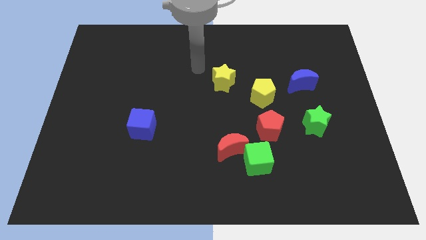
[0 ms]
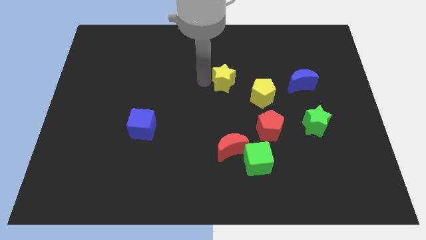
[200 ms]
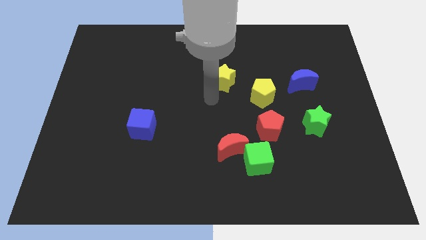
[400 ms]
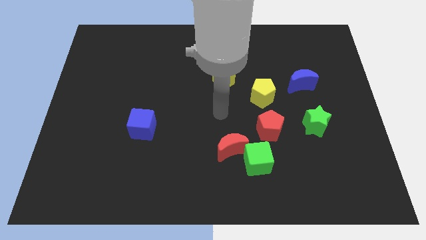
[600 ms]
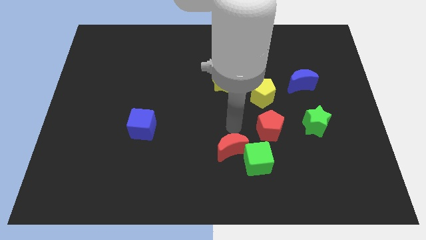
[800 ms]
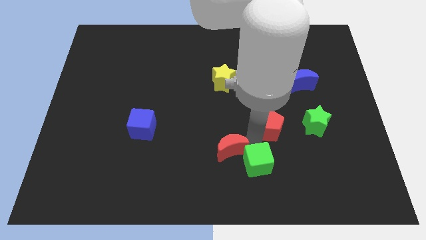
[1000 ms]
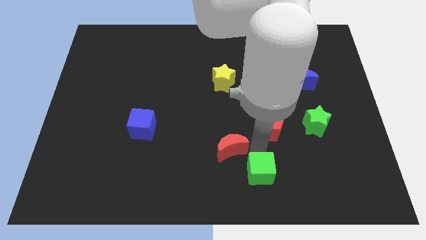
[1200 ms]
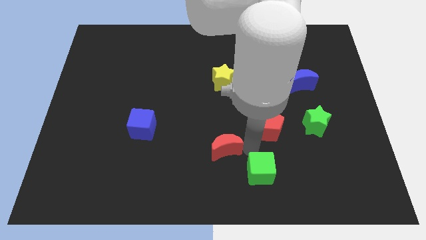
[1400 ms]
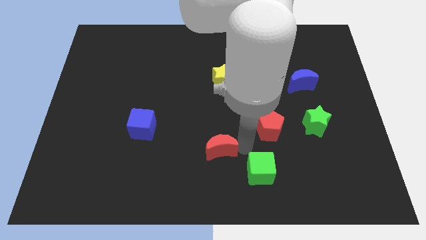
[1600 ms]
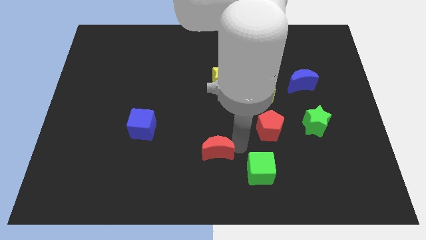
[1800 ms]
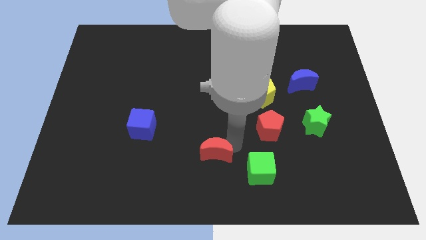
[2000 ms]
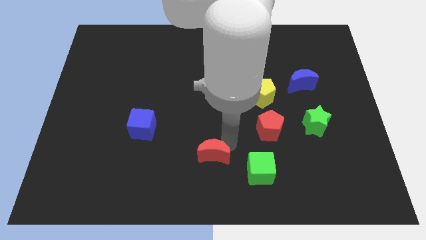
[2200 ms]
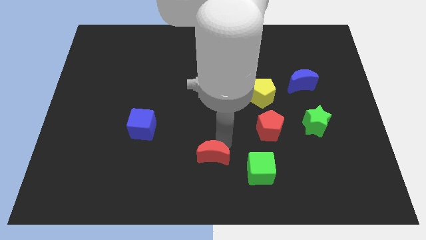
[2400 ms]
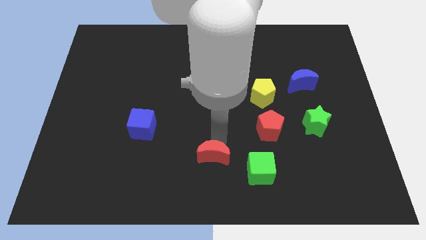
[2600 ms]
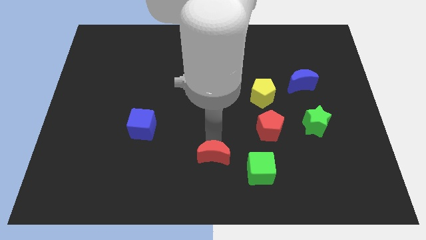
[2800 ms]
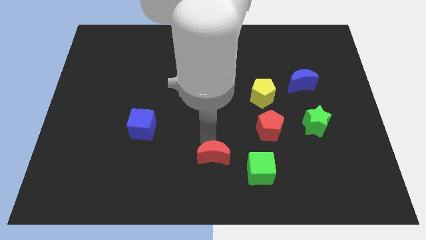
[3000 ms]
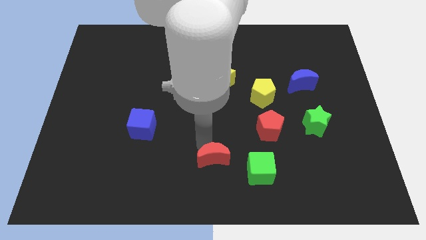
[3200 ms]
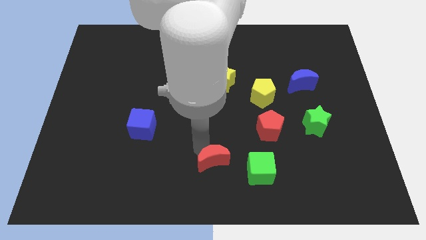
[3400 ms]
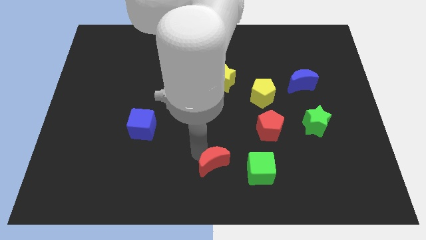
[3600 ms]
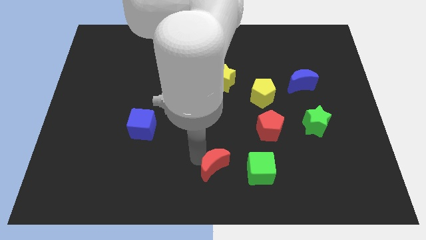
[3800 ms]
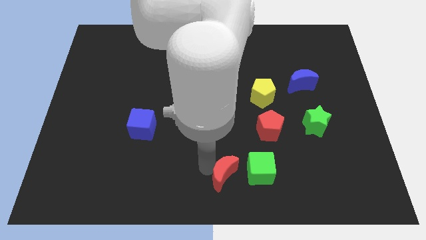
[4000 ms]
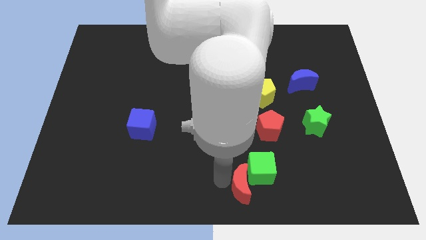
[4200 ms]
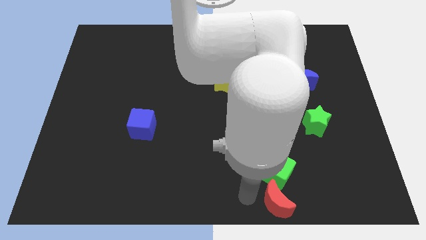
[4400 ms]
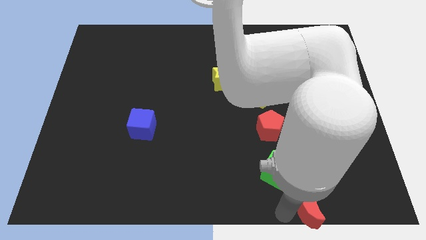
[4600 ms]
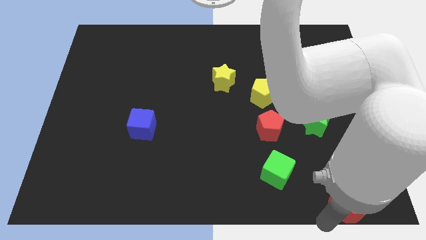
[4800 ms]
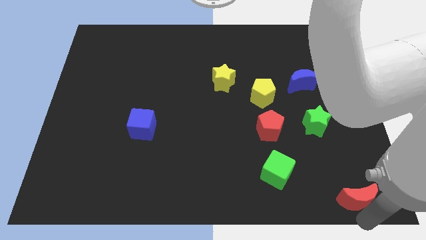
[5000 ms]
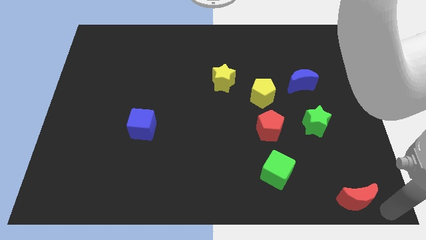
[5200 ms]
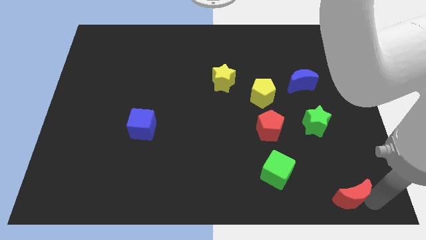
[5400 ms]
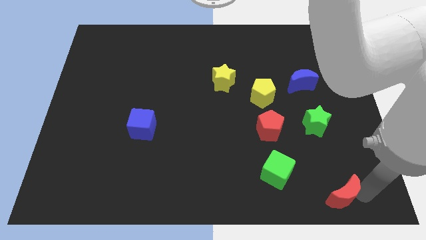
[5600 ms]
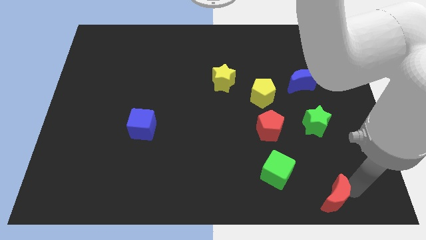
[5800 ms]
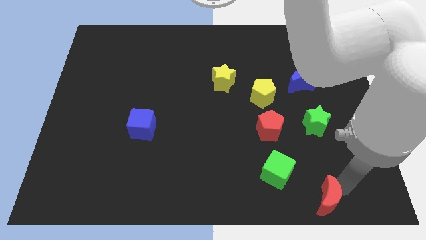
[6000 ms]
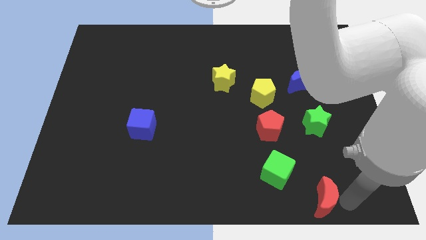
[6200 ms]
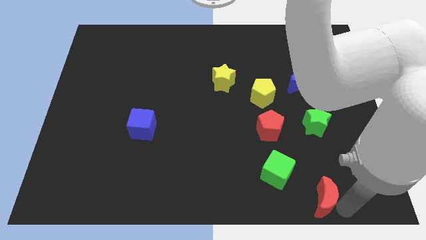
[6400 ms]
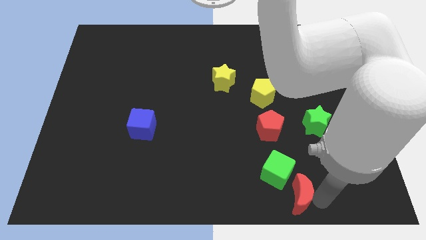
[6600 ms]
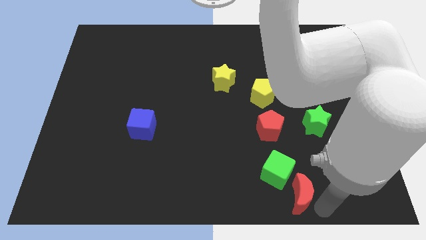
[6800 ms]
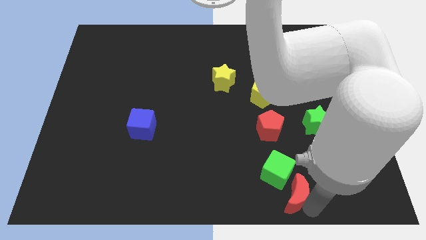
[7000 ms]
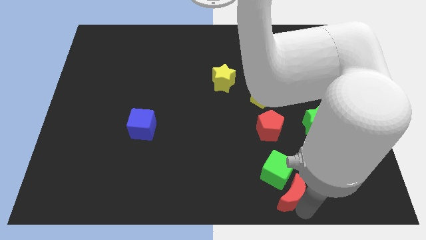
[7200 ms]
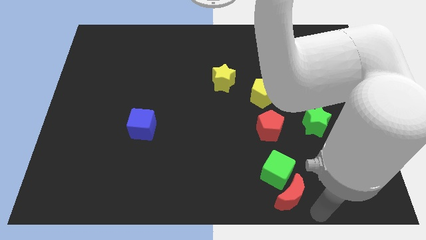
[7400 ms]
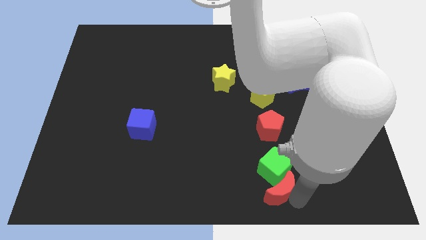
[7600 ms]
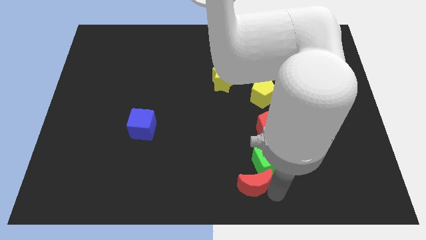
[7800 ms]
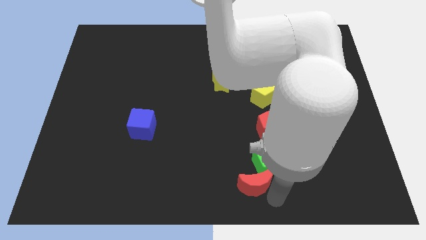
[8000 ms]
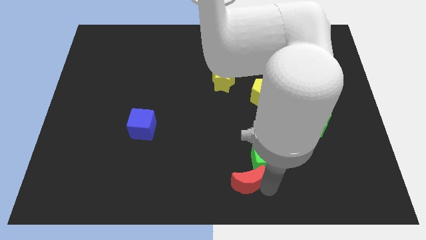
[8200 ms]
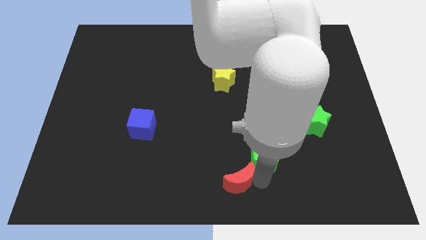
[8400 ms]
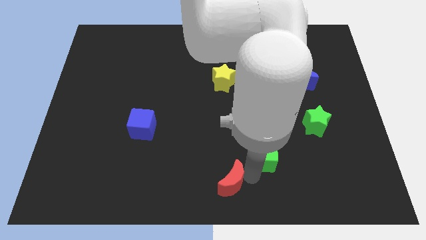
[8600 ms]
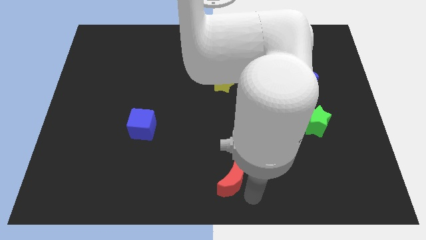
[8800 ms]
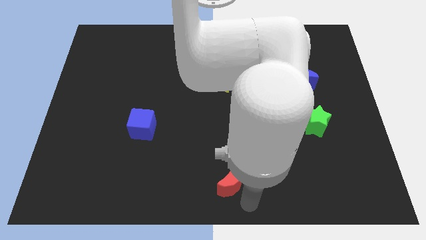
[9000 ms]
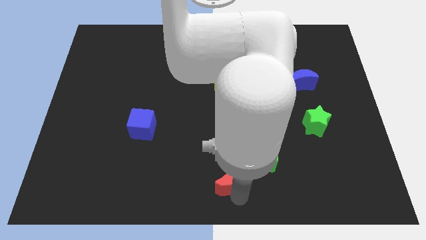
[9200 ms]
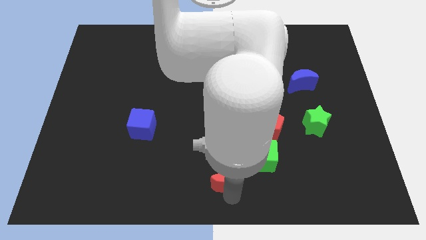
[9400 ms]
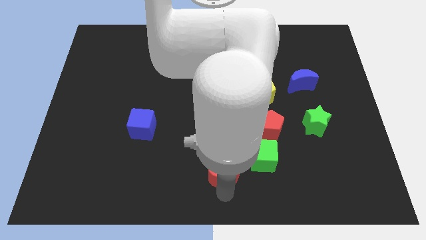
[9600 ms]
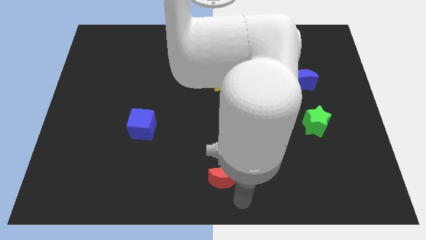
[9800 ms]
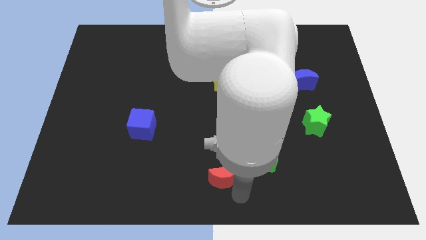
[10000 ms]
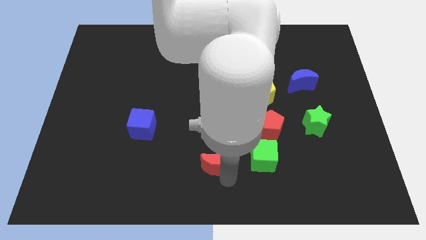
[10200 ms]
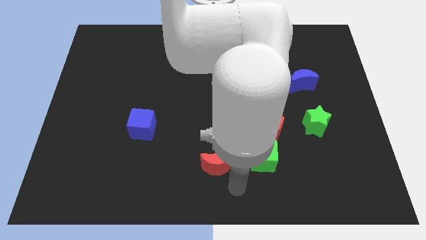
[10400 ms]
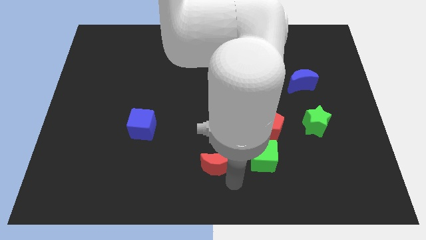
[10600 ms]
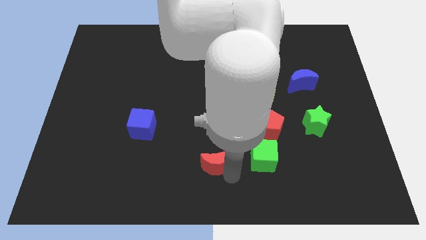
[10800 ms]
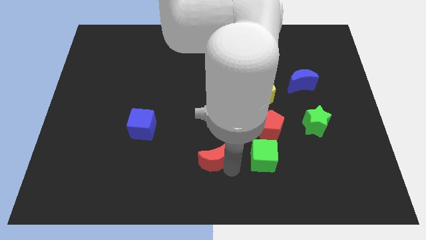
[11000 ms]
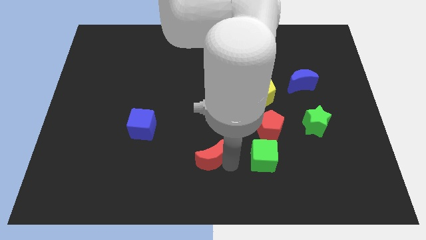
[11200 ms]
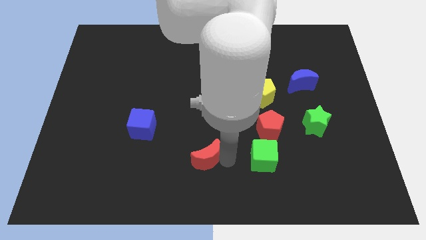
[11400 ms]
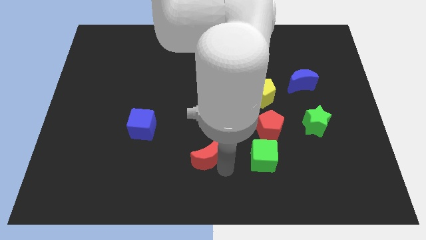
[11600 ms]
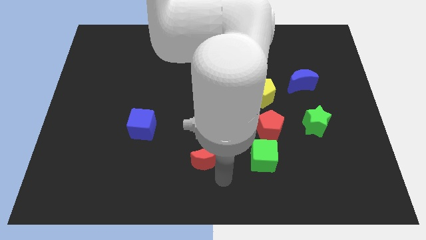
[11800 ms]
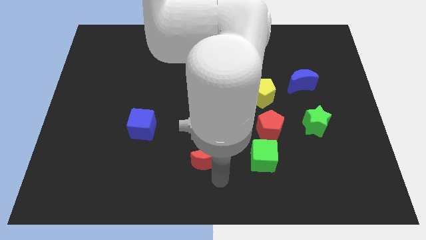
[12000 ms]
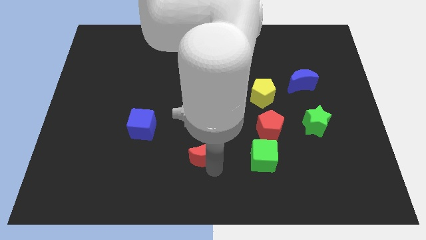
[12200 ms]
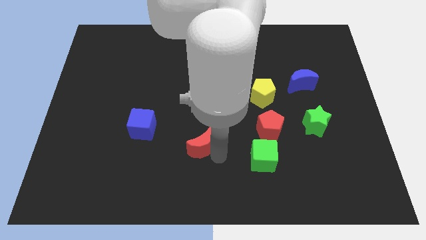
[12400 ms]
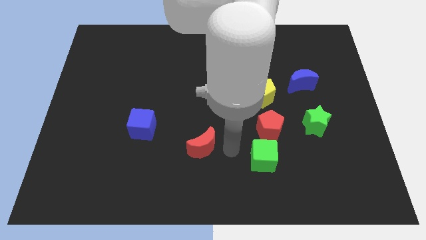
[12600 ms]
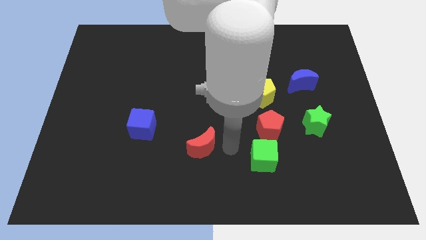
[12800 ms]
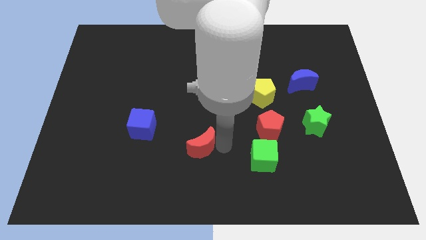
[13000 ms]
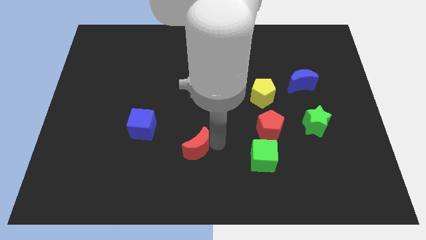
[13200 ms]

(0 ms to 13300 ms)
move the red moon a bit left

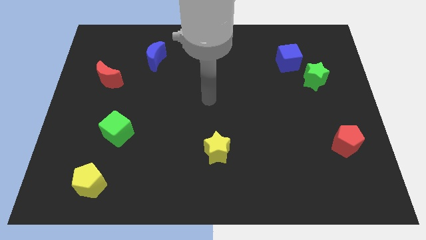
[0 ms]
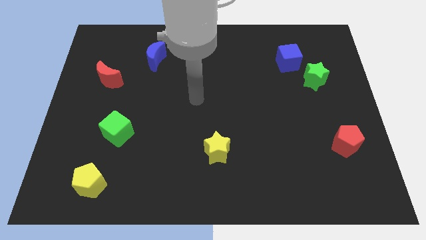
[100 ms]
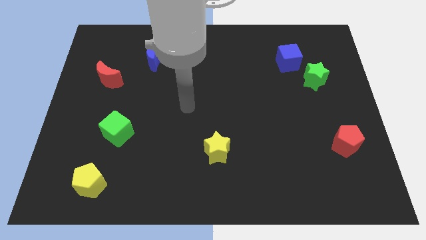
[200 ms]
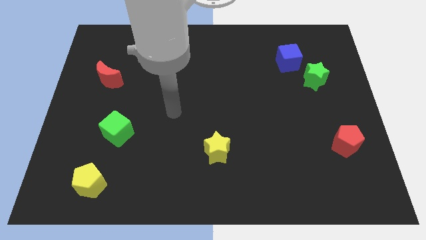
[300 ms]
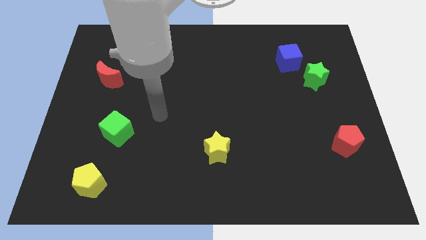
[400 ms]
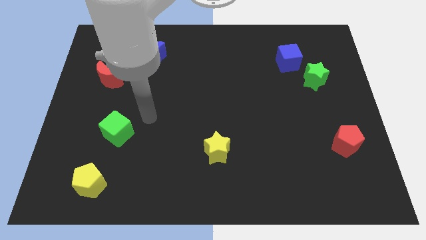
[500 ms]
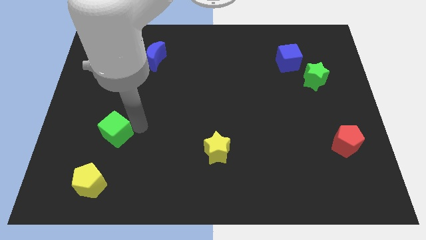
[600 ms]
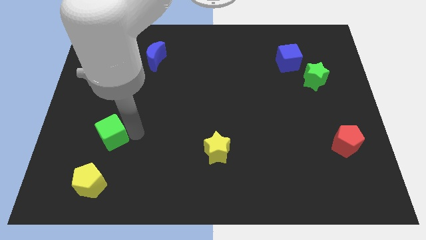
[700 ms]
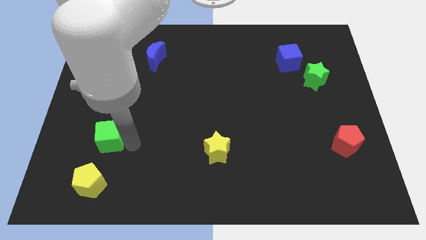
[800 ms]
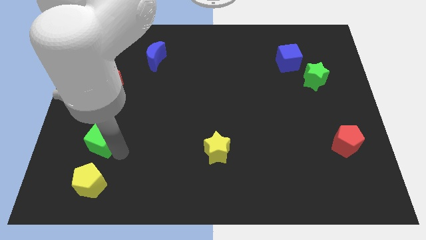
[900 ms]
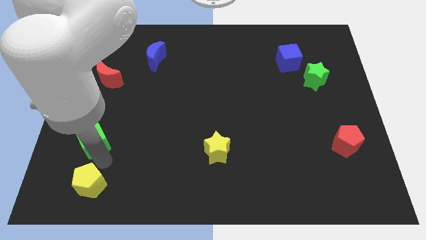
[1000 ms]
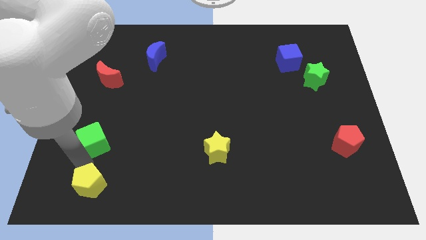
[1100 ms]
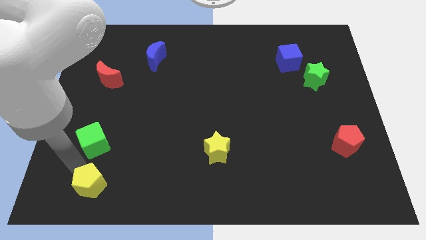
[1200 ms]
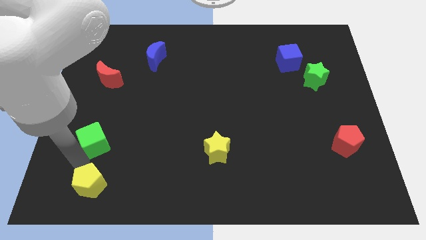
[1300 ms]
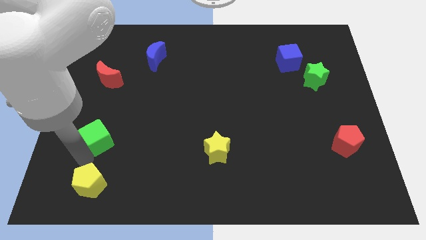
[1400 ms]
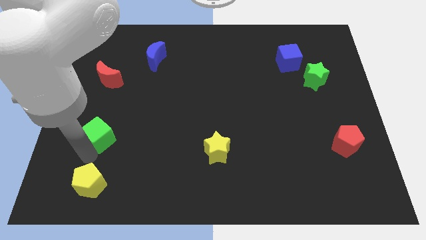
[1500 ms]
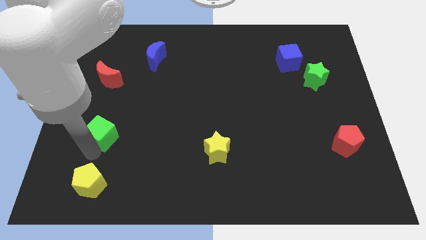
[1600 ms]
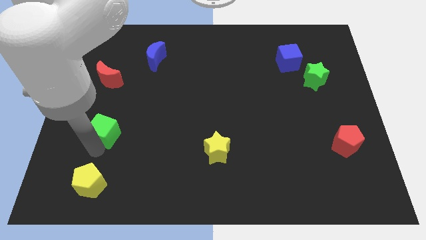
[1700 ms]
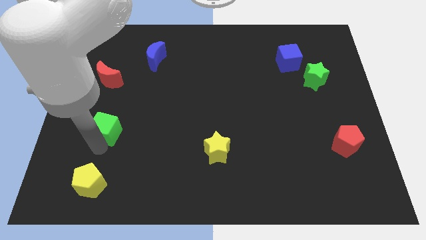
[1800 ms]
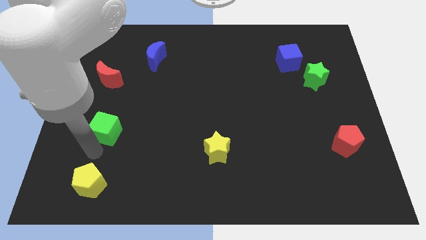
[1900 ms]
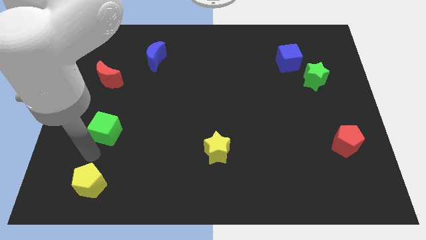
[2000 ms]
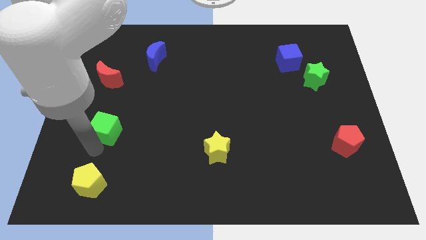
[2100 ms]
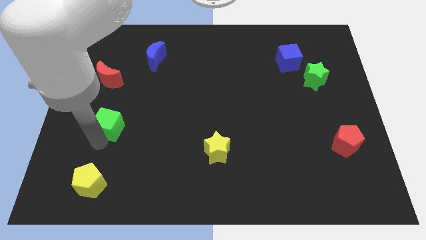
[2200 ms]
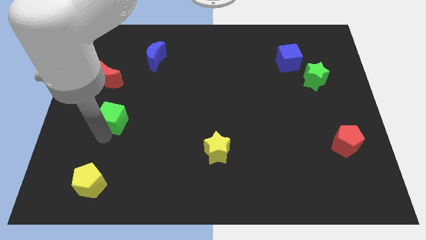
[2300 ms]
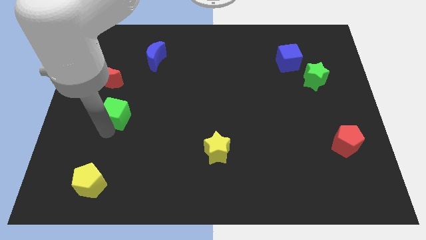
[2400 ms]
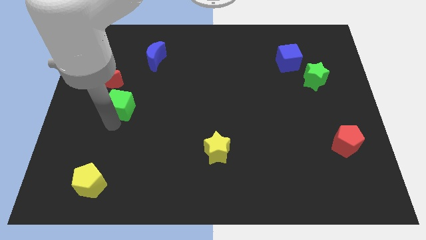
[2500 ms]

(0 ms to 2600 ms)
slide the green cube upwards a little
